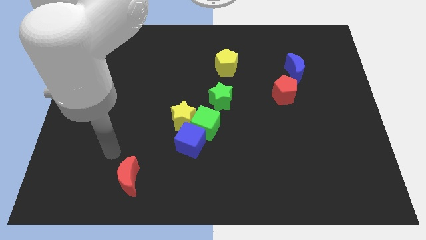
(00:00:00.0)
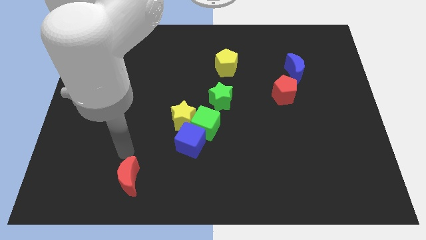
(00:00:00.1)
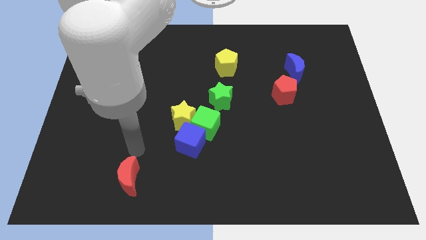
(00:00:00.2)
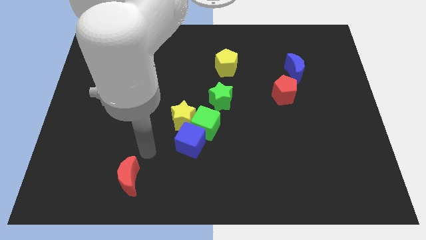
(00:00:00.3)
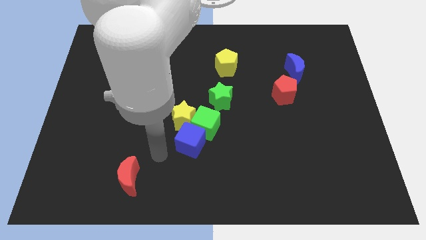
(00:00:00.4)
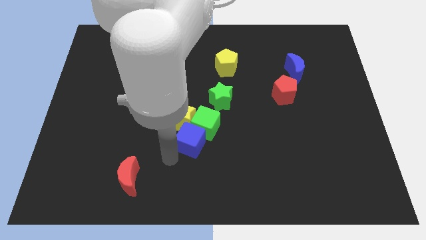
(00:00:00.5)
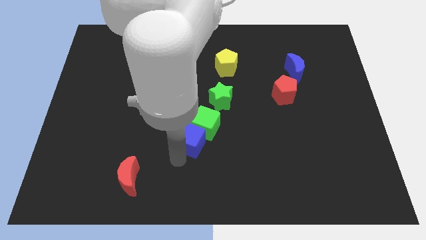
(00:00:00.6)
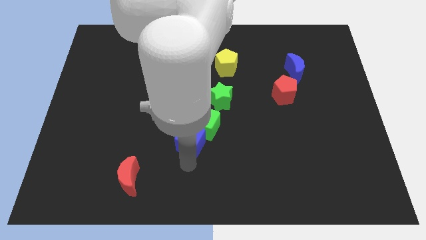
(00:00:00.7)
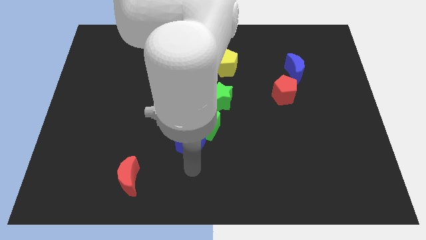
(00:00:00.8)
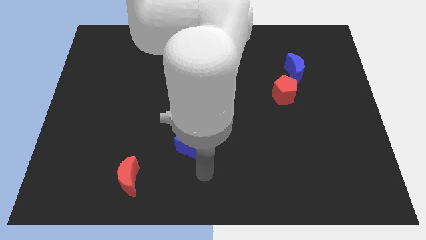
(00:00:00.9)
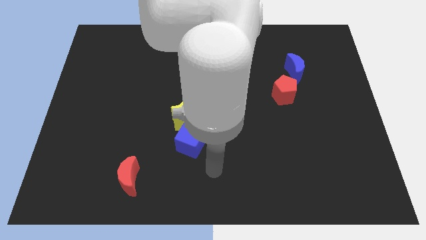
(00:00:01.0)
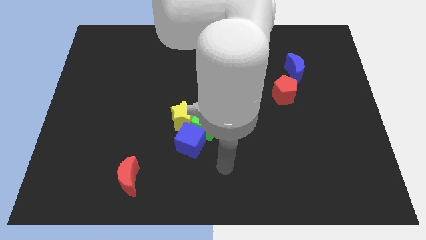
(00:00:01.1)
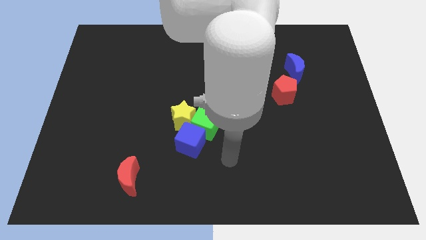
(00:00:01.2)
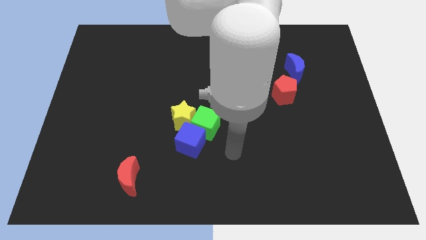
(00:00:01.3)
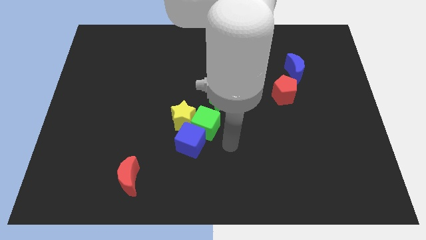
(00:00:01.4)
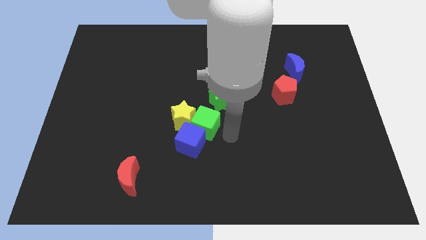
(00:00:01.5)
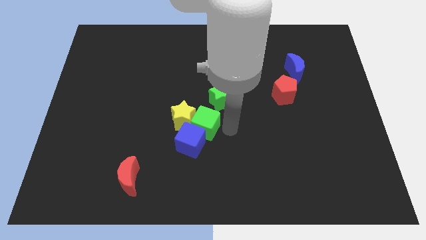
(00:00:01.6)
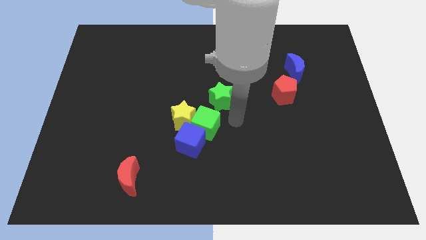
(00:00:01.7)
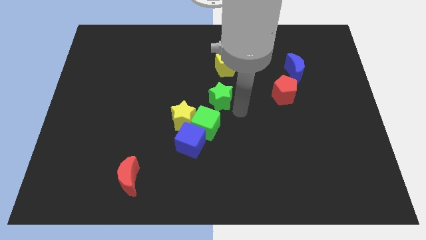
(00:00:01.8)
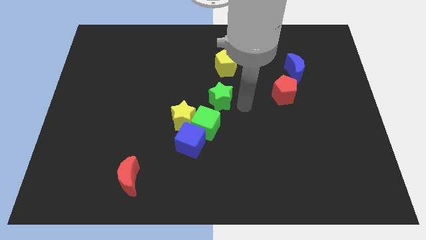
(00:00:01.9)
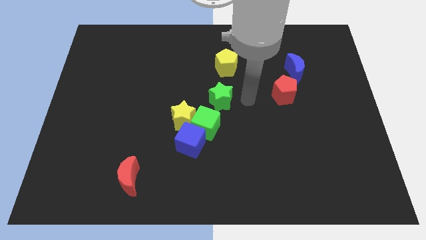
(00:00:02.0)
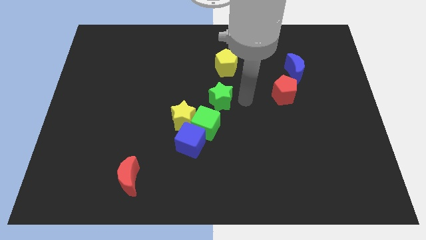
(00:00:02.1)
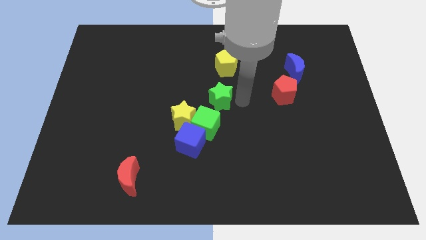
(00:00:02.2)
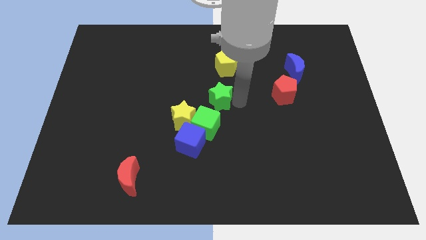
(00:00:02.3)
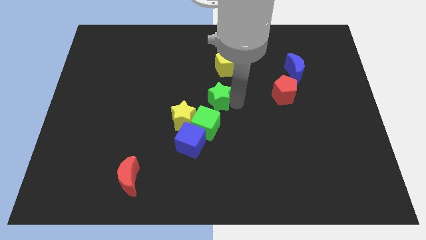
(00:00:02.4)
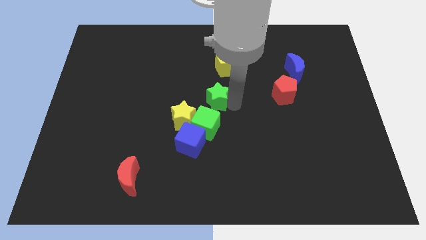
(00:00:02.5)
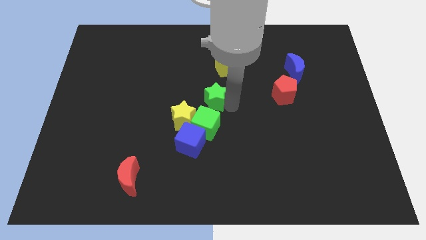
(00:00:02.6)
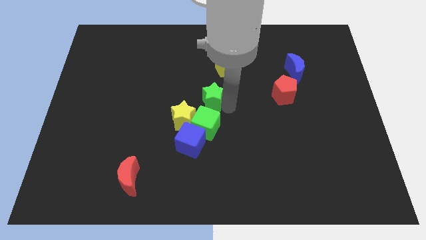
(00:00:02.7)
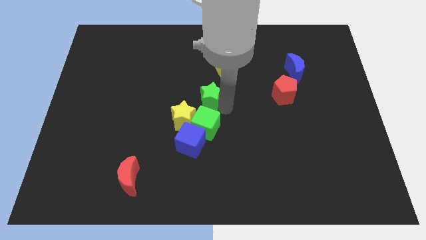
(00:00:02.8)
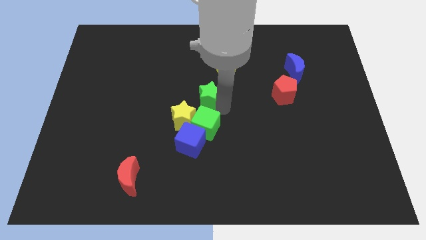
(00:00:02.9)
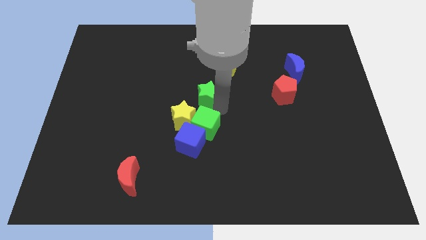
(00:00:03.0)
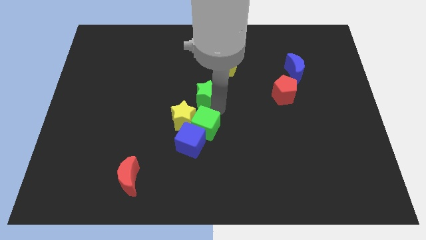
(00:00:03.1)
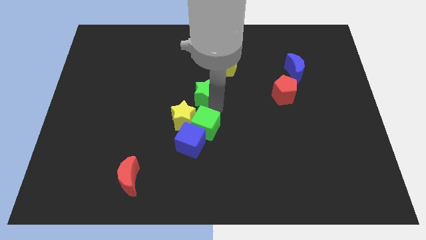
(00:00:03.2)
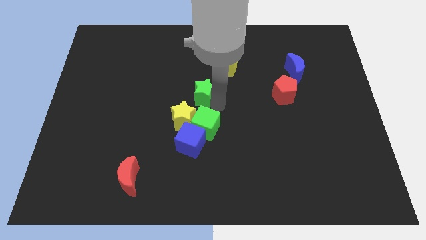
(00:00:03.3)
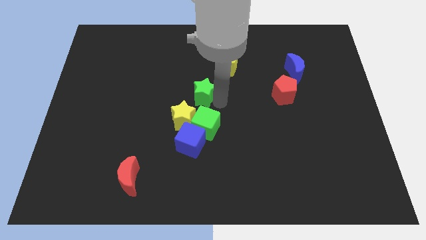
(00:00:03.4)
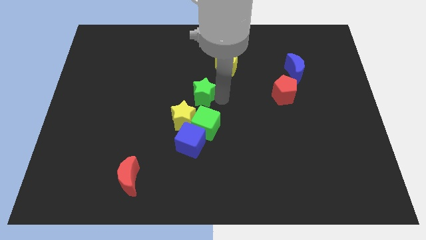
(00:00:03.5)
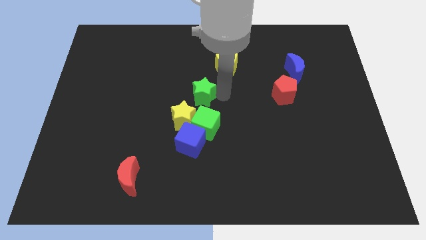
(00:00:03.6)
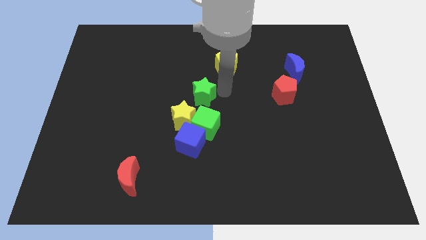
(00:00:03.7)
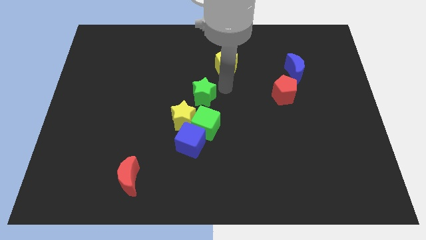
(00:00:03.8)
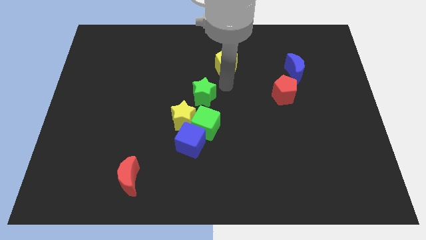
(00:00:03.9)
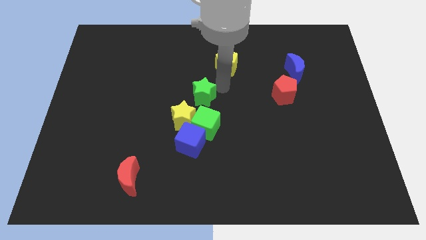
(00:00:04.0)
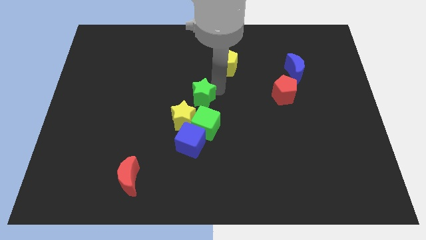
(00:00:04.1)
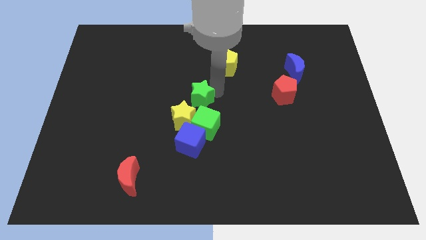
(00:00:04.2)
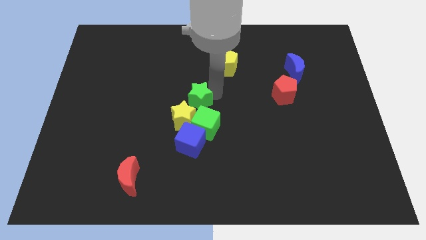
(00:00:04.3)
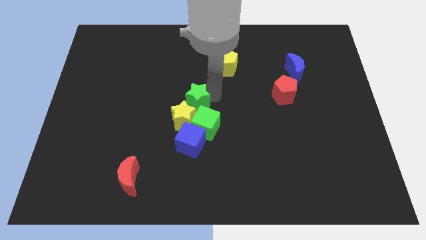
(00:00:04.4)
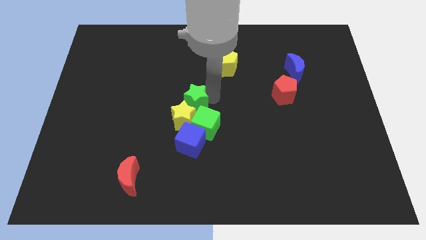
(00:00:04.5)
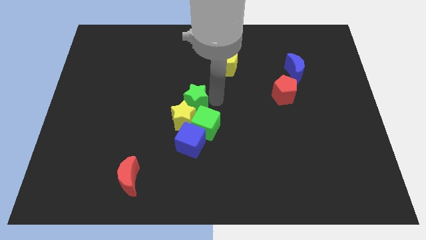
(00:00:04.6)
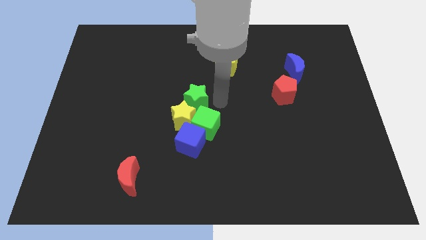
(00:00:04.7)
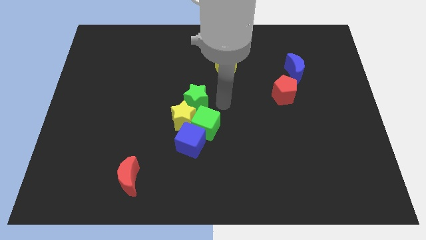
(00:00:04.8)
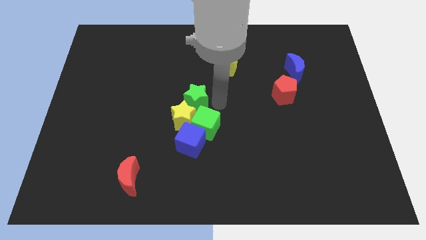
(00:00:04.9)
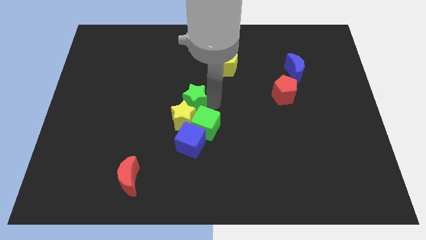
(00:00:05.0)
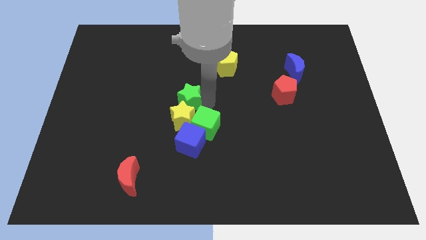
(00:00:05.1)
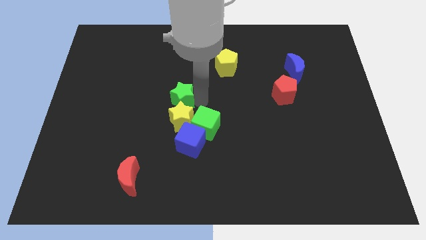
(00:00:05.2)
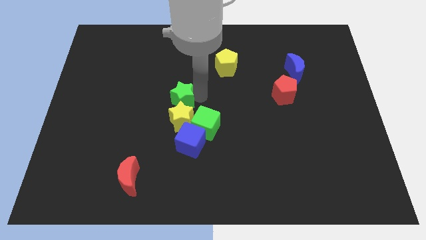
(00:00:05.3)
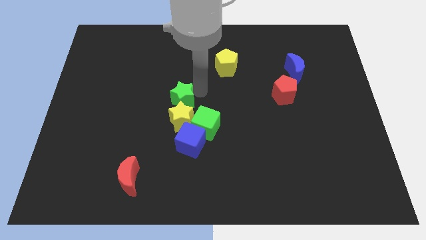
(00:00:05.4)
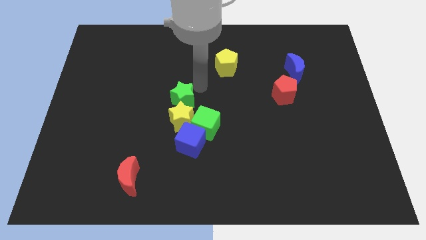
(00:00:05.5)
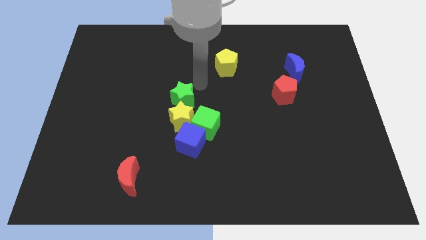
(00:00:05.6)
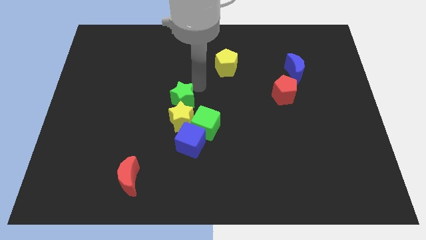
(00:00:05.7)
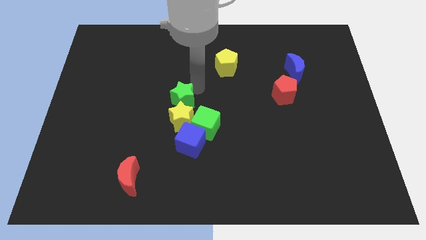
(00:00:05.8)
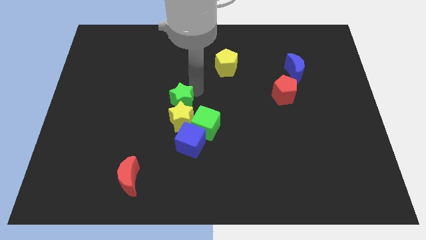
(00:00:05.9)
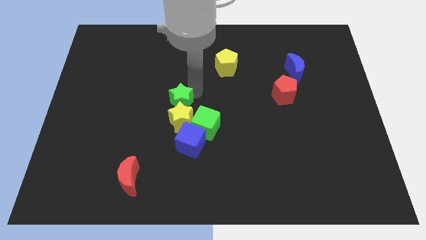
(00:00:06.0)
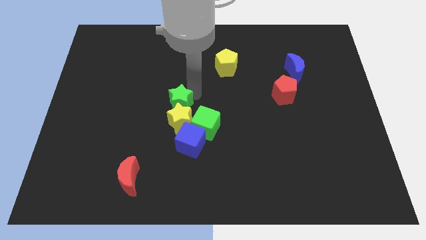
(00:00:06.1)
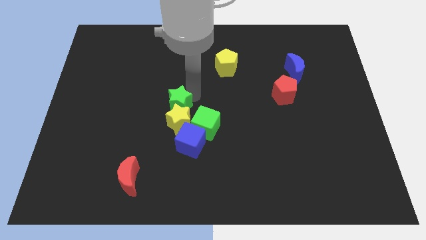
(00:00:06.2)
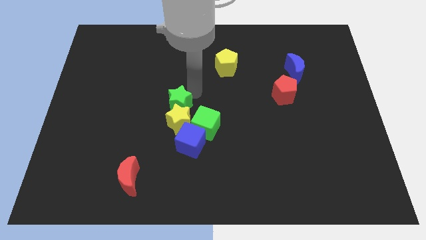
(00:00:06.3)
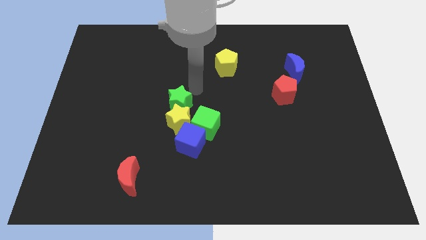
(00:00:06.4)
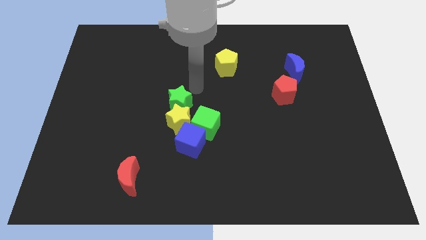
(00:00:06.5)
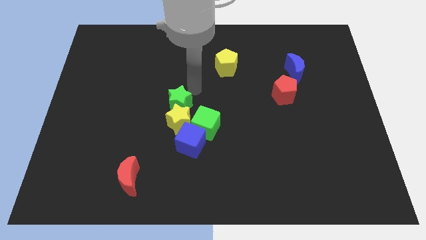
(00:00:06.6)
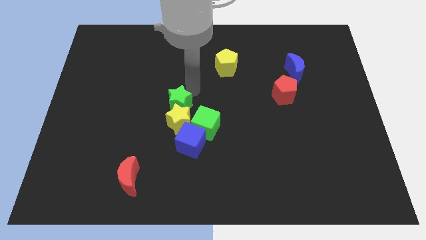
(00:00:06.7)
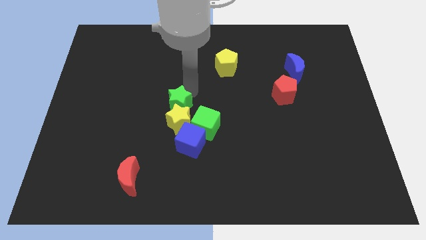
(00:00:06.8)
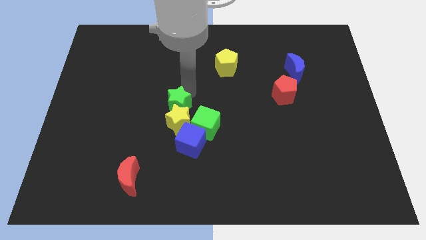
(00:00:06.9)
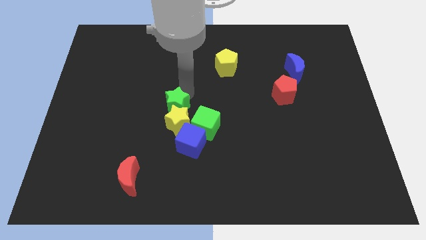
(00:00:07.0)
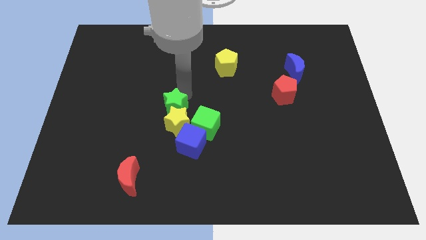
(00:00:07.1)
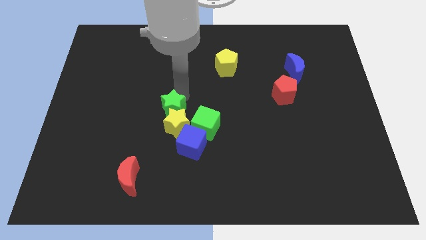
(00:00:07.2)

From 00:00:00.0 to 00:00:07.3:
move the green star to the left of the green cube
